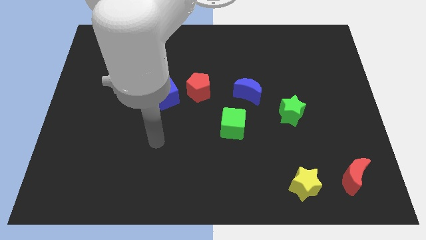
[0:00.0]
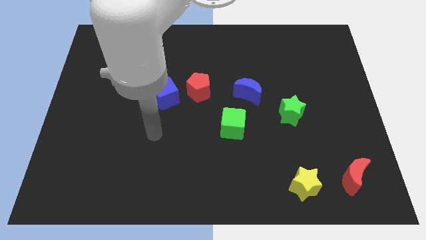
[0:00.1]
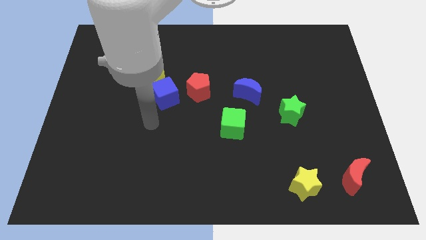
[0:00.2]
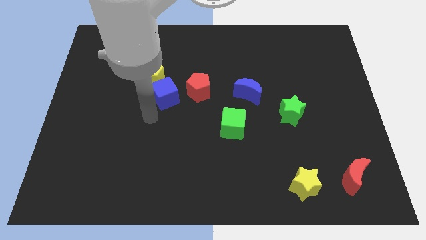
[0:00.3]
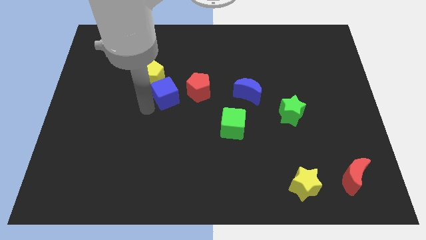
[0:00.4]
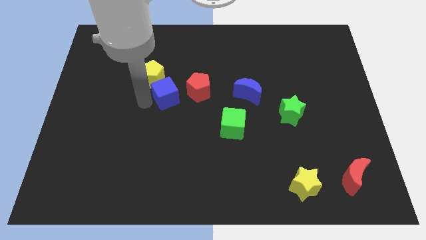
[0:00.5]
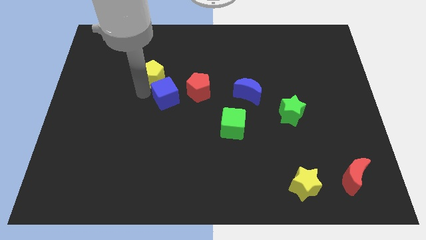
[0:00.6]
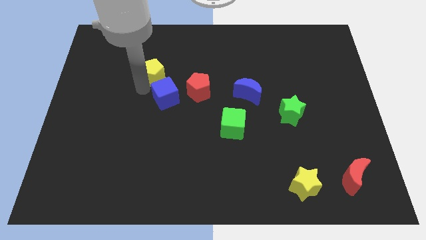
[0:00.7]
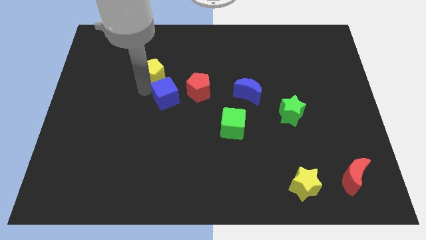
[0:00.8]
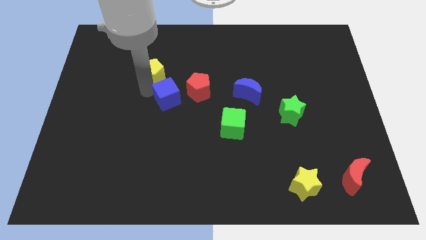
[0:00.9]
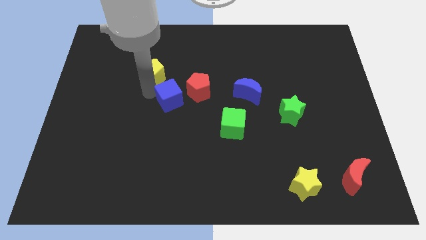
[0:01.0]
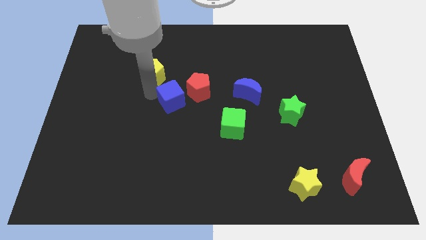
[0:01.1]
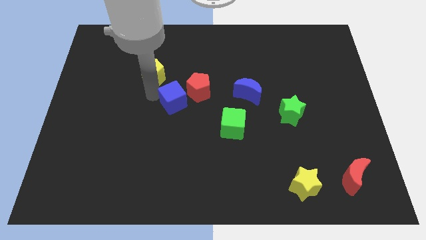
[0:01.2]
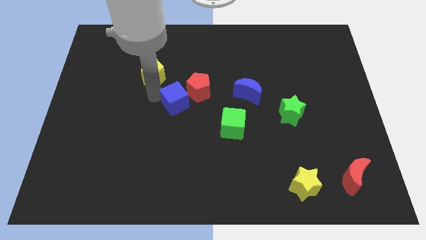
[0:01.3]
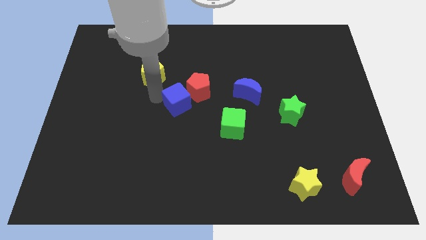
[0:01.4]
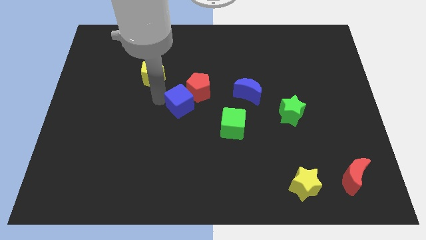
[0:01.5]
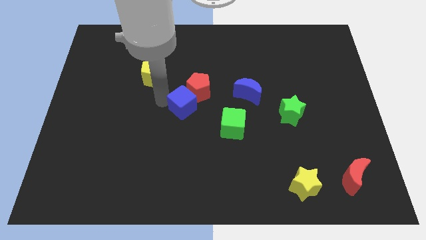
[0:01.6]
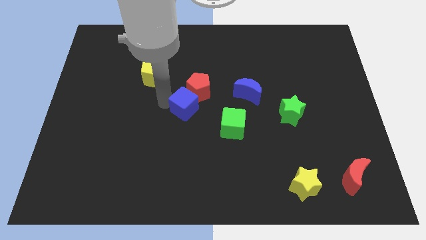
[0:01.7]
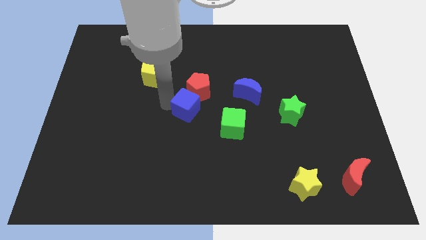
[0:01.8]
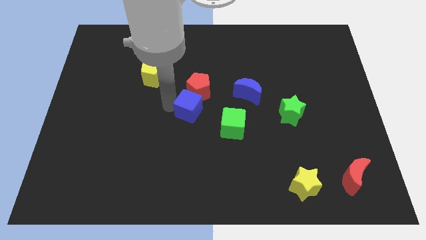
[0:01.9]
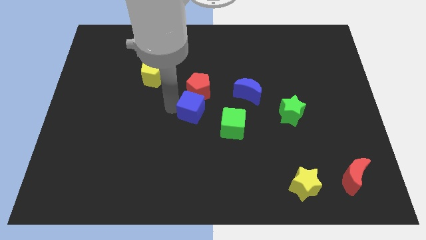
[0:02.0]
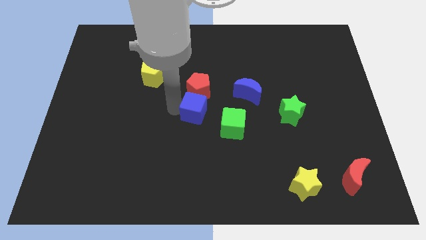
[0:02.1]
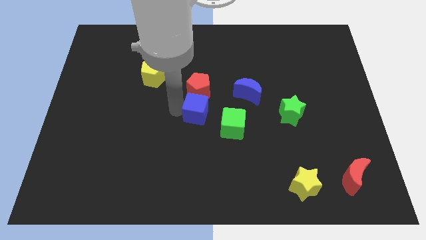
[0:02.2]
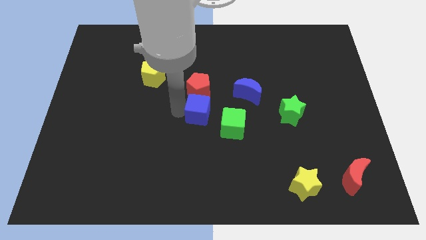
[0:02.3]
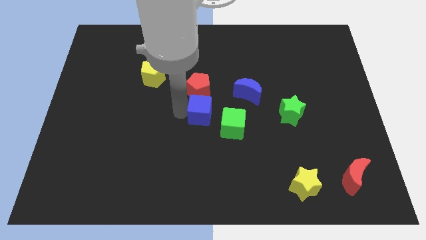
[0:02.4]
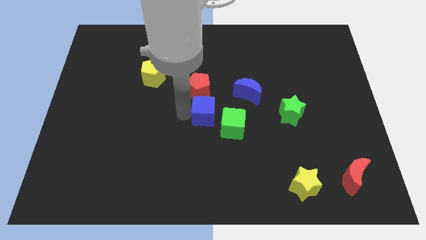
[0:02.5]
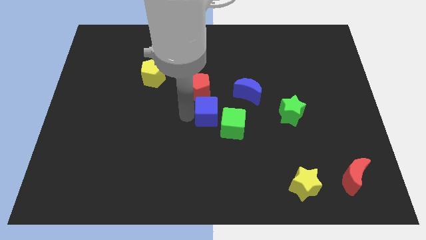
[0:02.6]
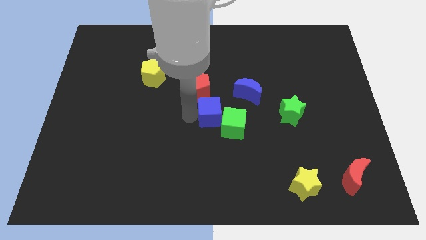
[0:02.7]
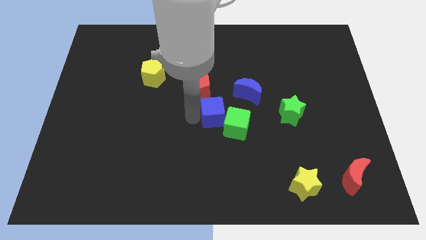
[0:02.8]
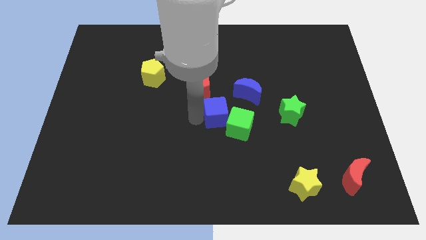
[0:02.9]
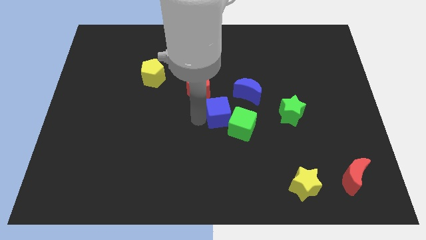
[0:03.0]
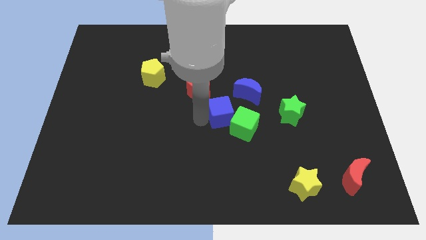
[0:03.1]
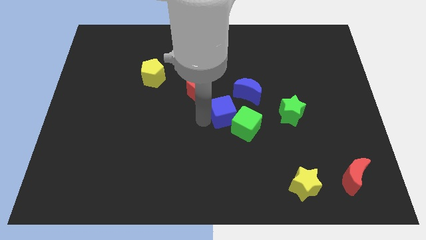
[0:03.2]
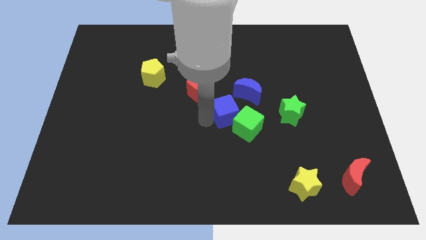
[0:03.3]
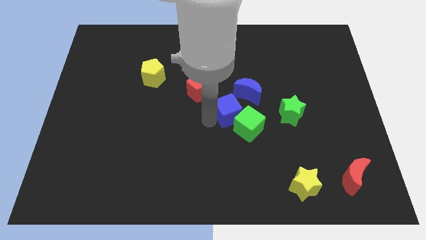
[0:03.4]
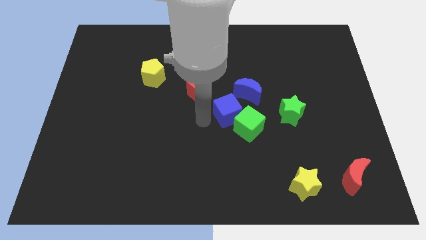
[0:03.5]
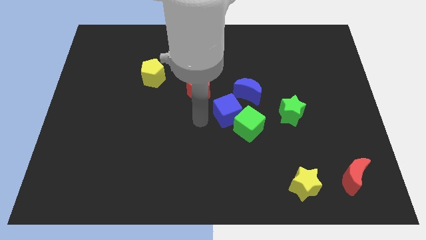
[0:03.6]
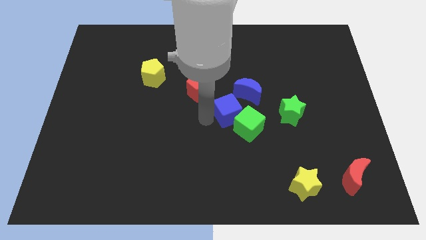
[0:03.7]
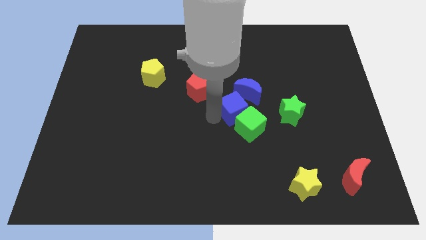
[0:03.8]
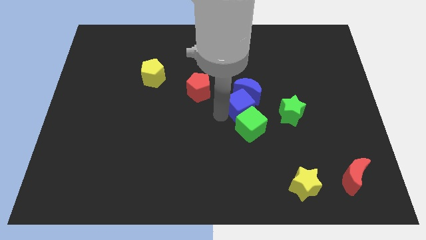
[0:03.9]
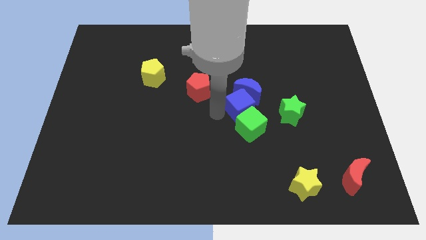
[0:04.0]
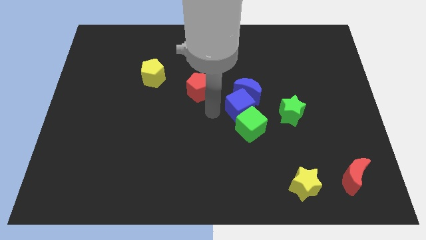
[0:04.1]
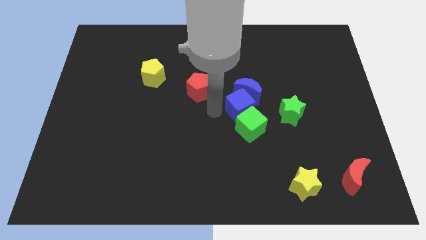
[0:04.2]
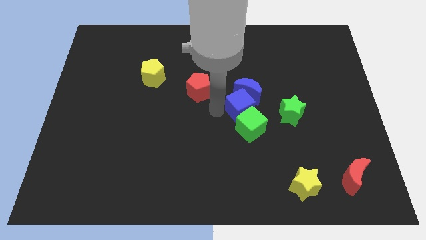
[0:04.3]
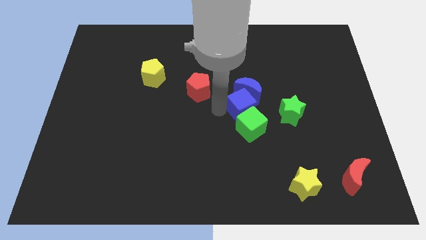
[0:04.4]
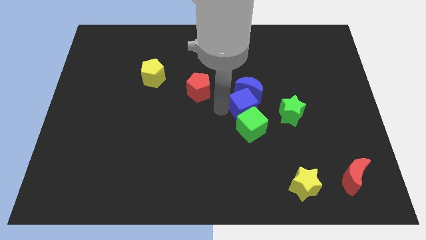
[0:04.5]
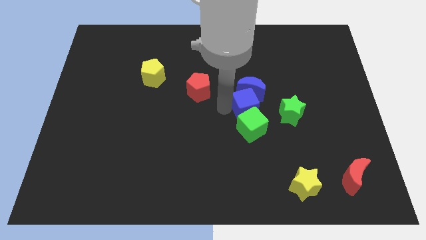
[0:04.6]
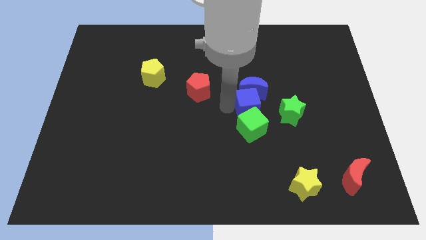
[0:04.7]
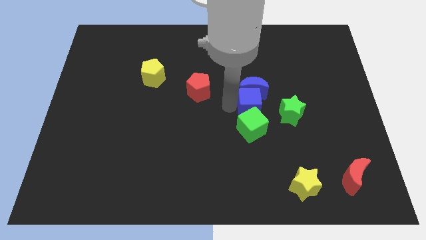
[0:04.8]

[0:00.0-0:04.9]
slide the blue cube to the right

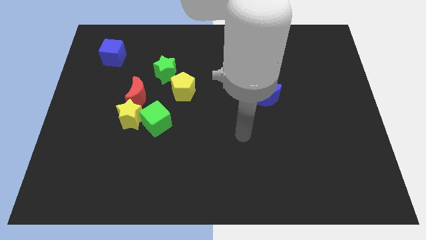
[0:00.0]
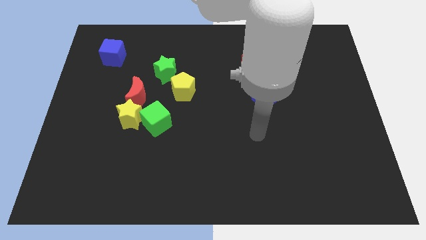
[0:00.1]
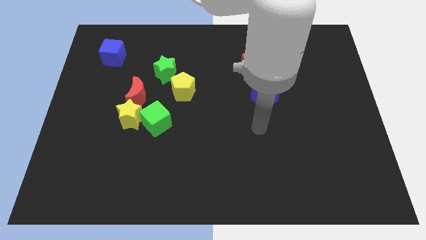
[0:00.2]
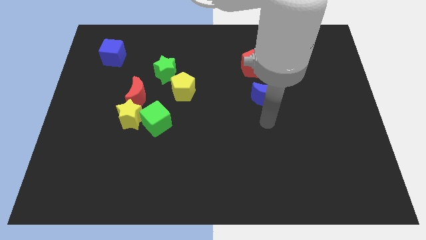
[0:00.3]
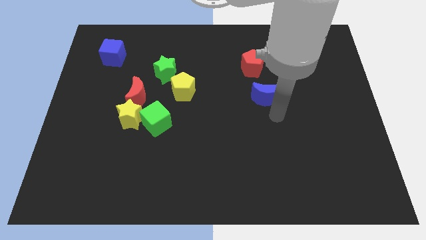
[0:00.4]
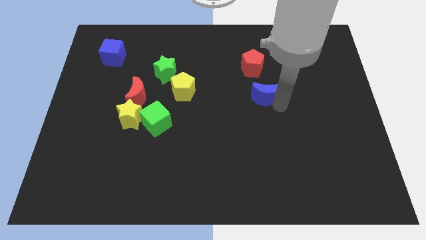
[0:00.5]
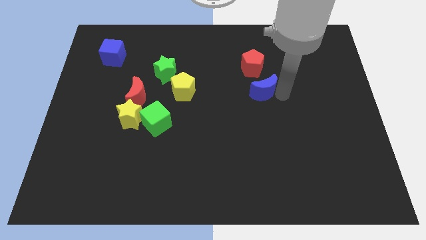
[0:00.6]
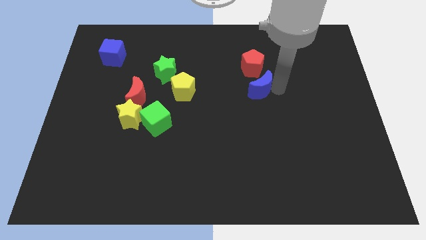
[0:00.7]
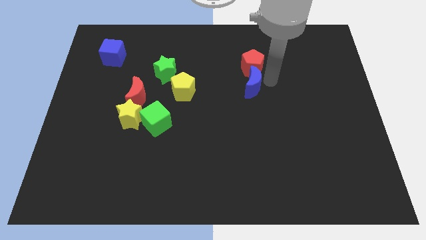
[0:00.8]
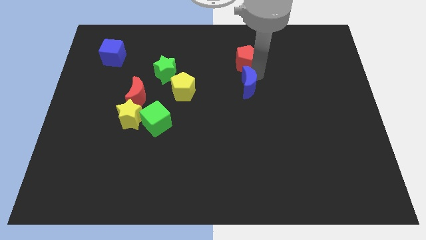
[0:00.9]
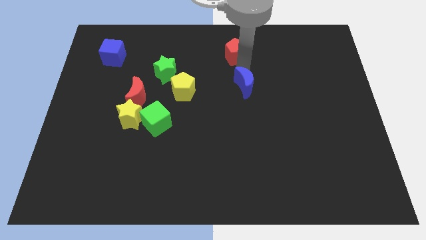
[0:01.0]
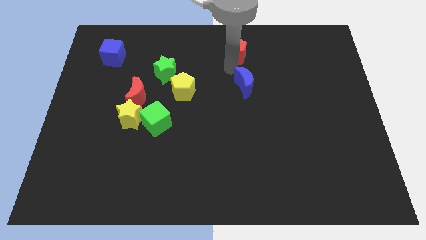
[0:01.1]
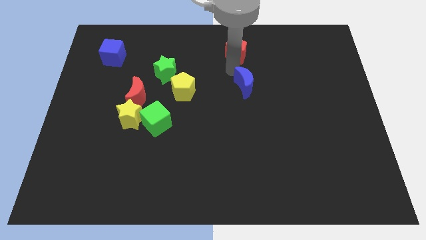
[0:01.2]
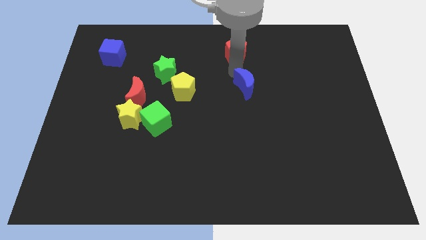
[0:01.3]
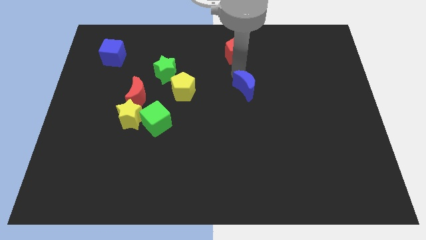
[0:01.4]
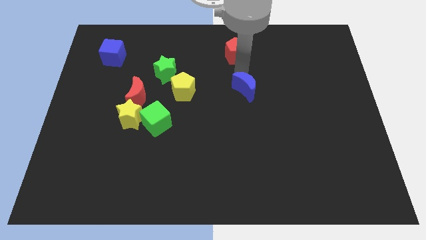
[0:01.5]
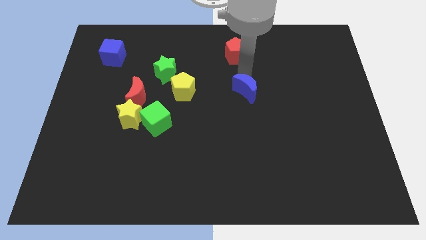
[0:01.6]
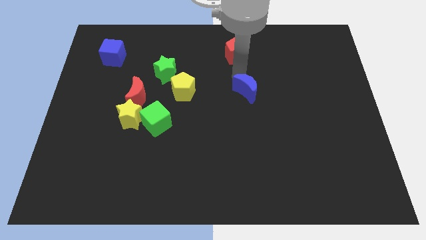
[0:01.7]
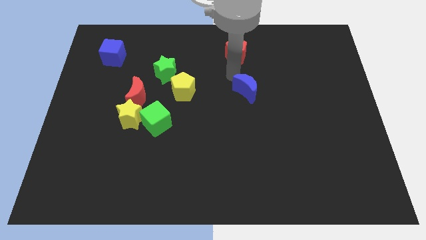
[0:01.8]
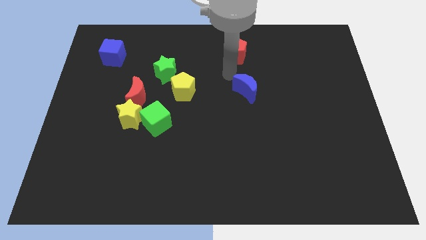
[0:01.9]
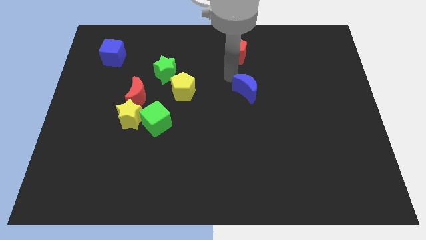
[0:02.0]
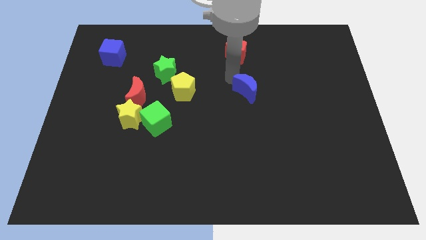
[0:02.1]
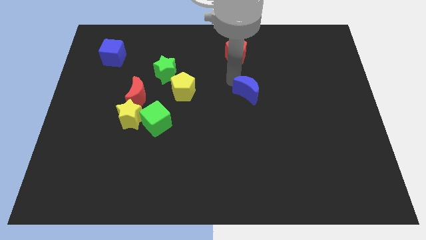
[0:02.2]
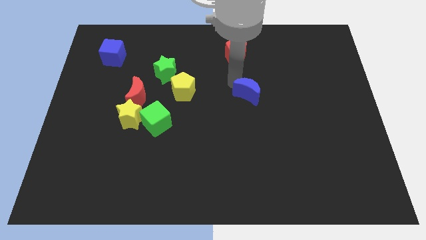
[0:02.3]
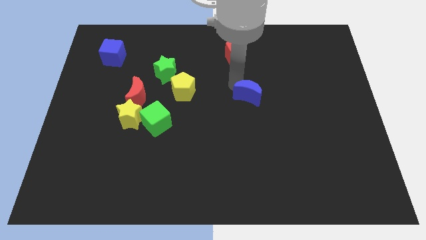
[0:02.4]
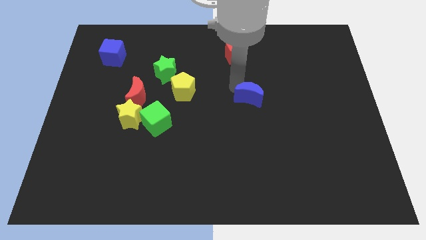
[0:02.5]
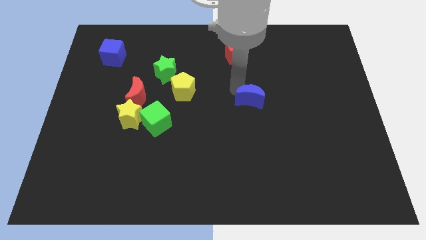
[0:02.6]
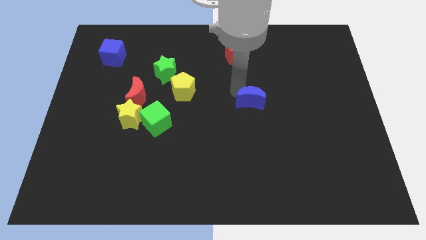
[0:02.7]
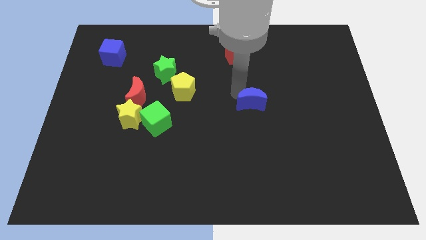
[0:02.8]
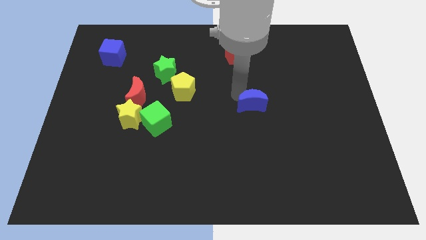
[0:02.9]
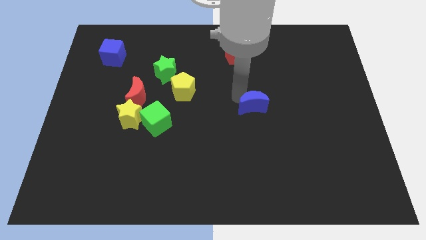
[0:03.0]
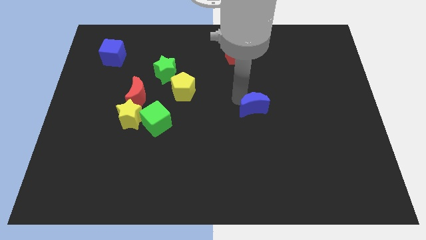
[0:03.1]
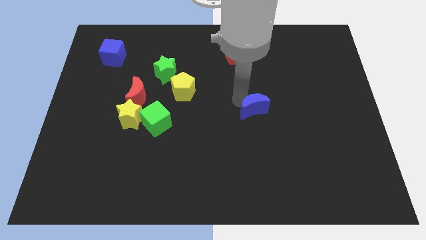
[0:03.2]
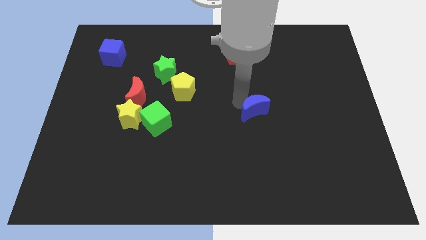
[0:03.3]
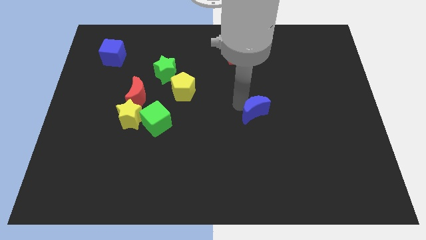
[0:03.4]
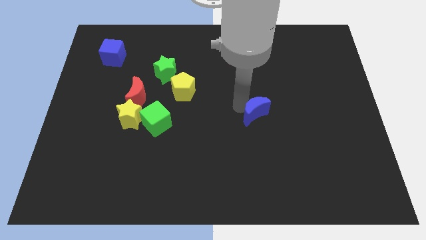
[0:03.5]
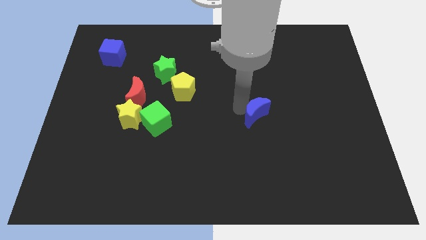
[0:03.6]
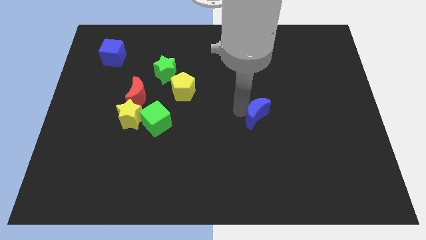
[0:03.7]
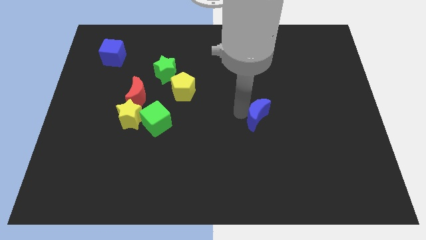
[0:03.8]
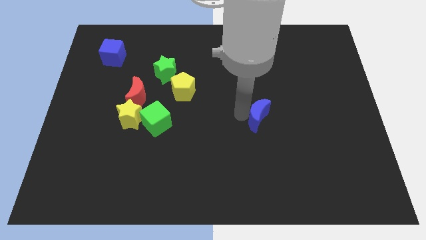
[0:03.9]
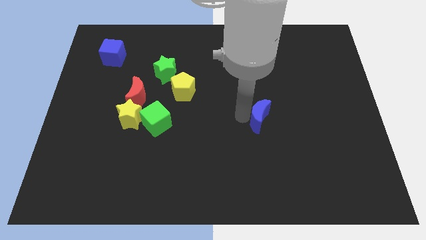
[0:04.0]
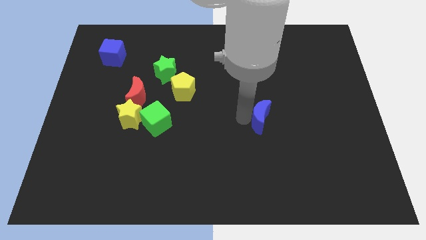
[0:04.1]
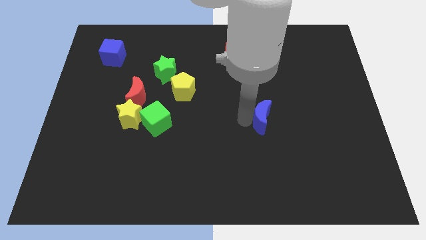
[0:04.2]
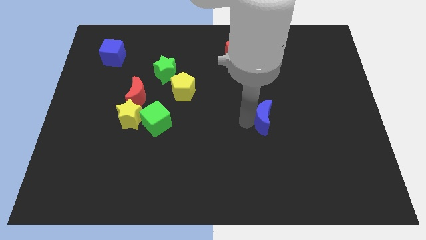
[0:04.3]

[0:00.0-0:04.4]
push the blue moon downwards somewhat
